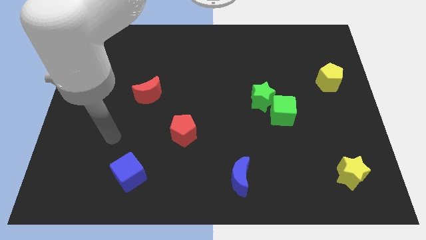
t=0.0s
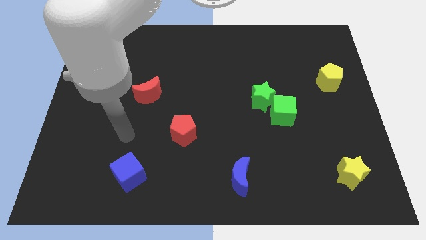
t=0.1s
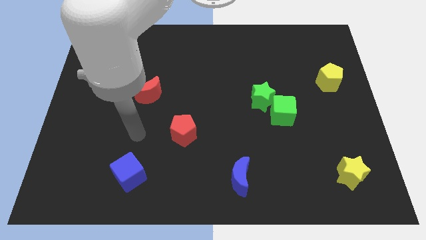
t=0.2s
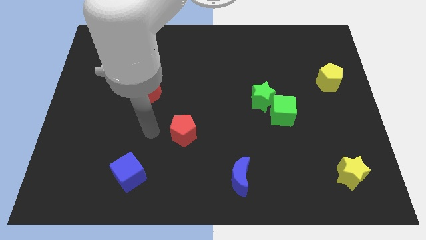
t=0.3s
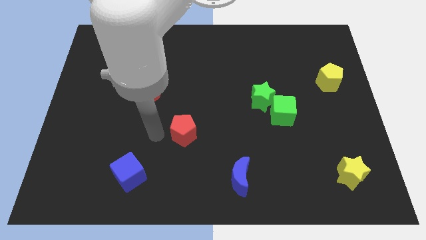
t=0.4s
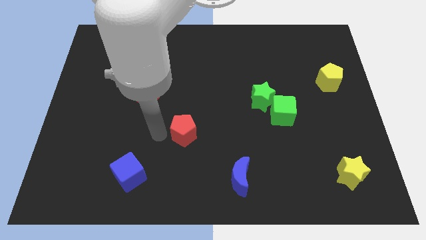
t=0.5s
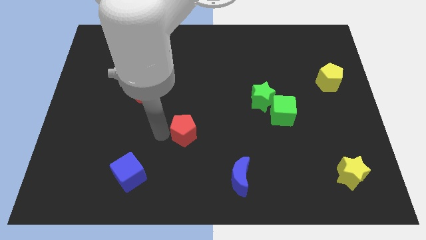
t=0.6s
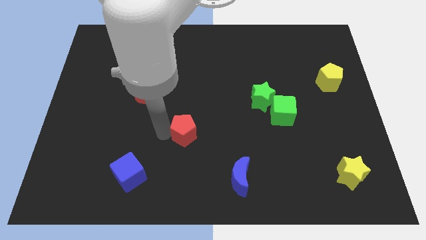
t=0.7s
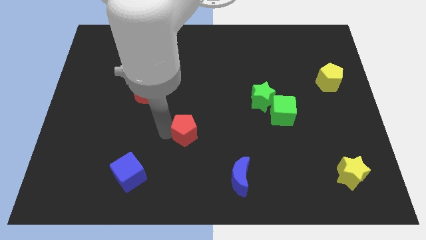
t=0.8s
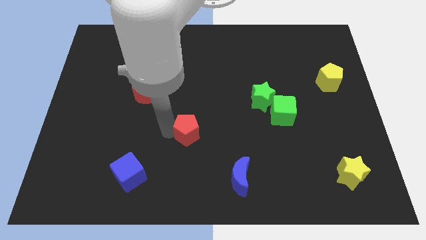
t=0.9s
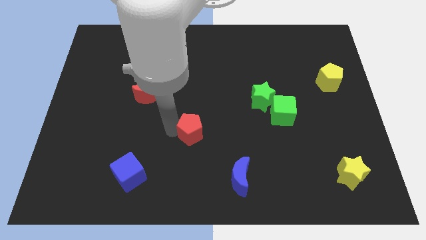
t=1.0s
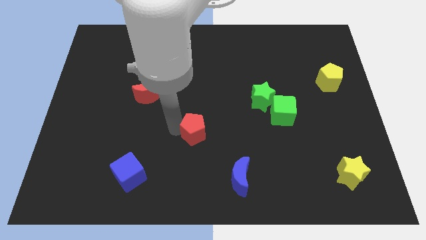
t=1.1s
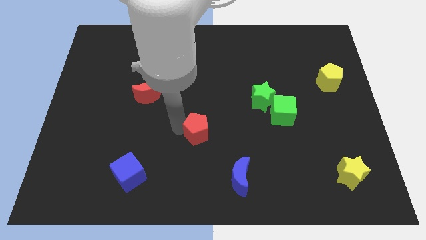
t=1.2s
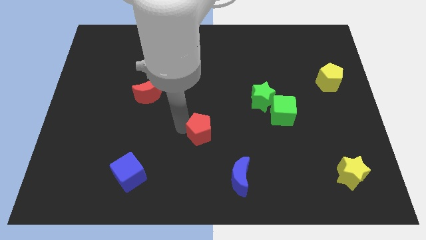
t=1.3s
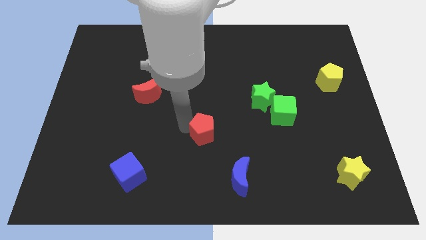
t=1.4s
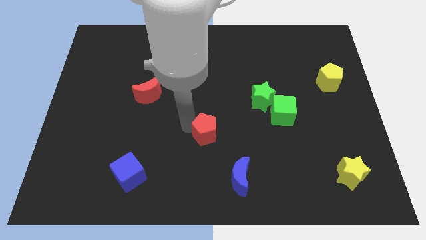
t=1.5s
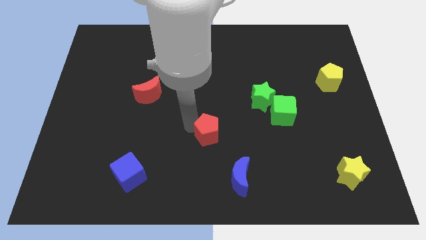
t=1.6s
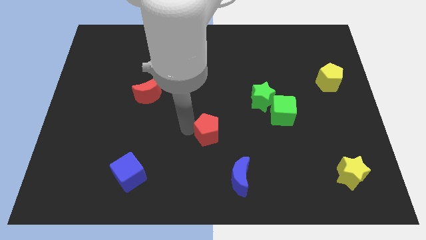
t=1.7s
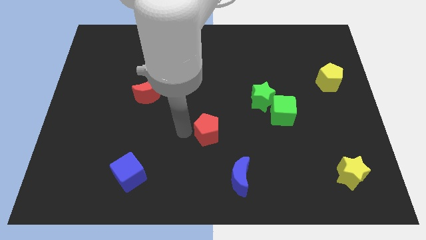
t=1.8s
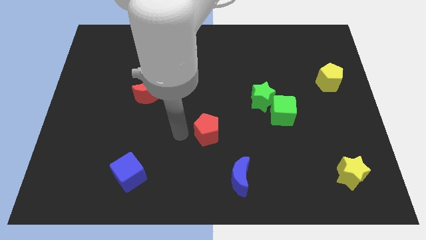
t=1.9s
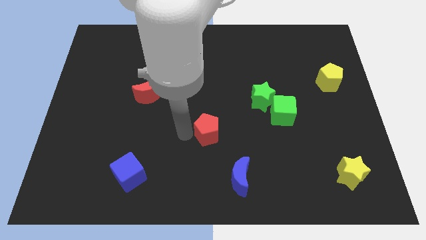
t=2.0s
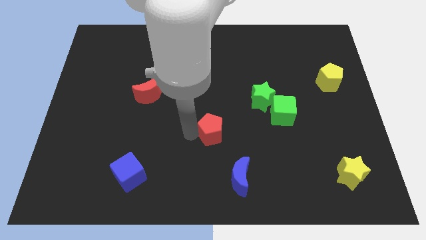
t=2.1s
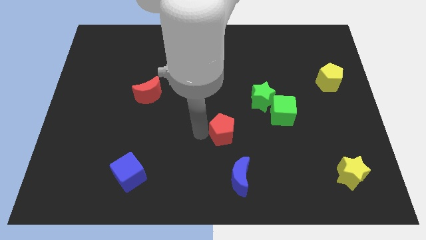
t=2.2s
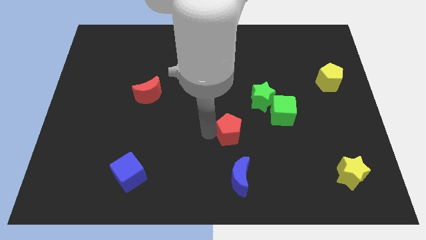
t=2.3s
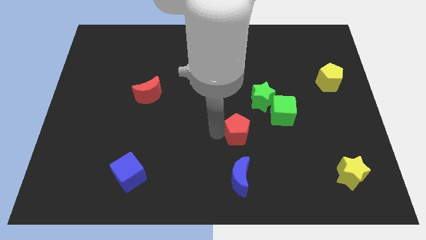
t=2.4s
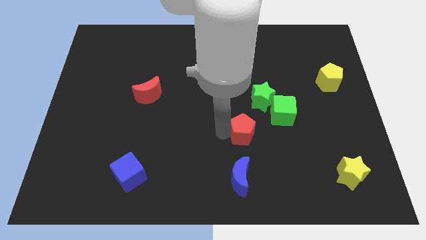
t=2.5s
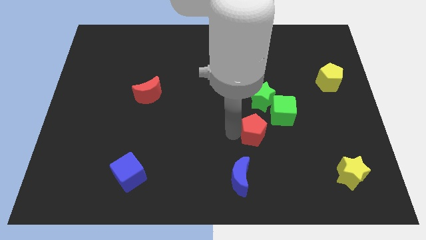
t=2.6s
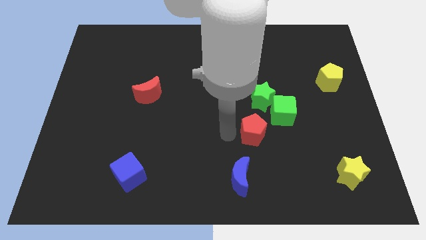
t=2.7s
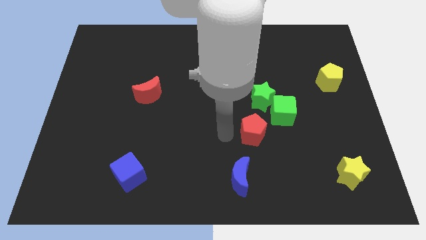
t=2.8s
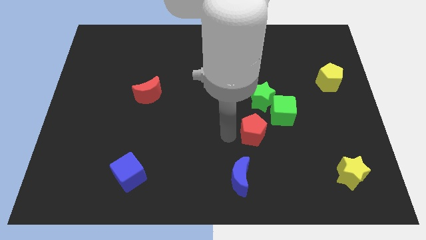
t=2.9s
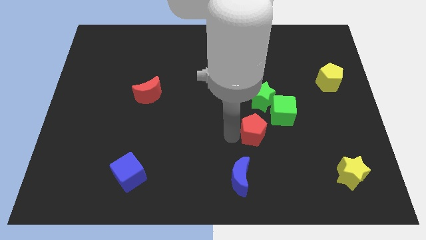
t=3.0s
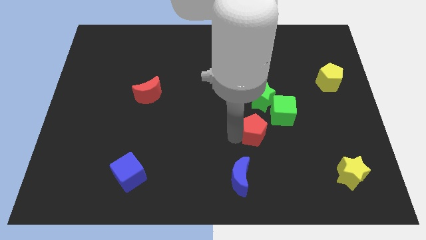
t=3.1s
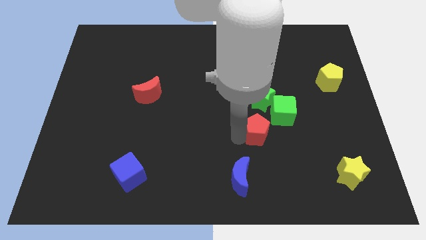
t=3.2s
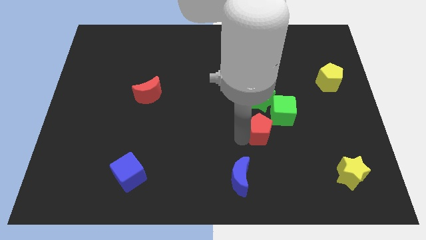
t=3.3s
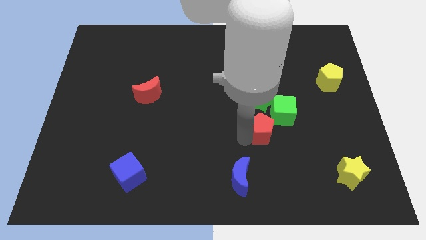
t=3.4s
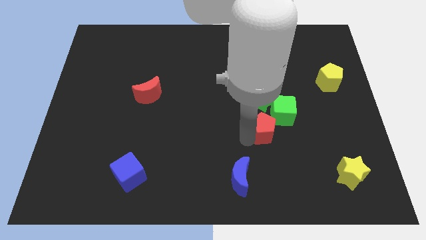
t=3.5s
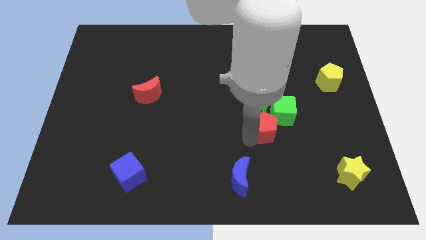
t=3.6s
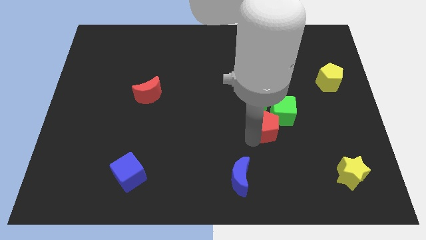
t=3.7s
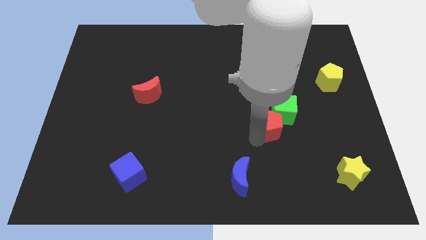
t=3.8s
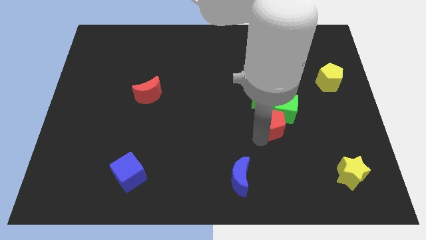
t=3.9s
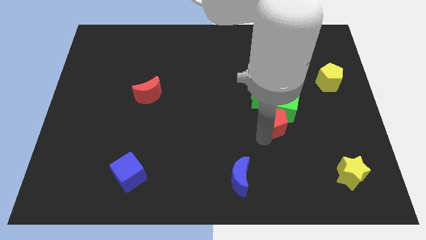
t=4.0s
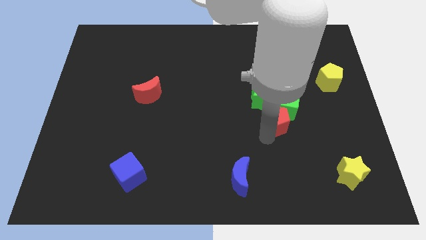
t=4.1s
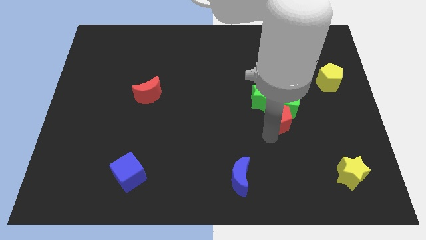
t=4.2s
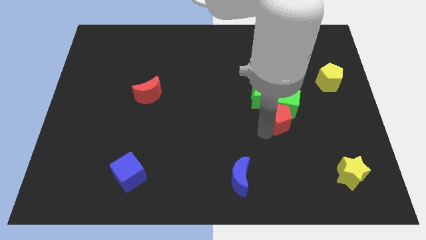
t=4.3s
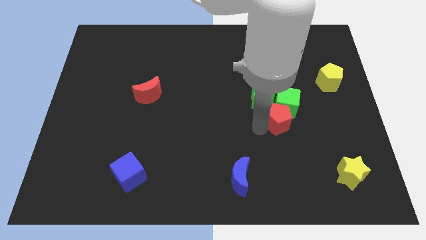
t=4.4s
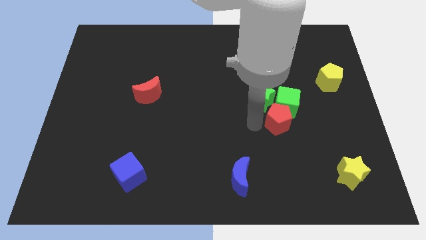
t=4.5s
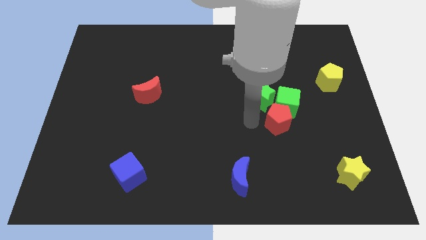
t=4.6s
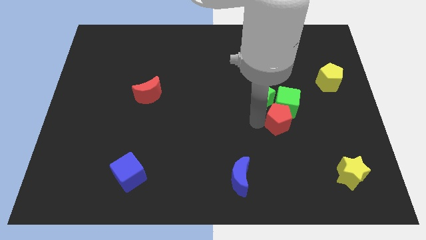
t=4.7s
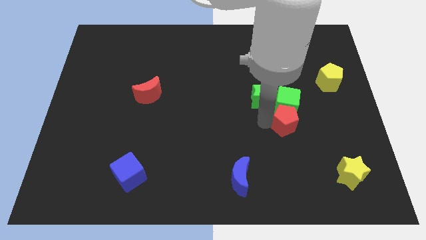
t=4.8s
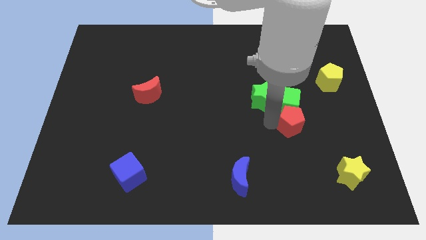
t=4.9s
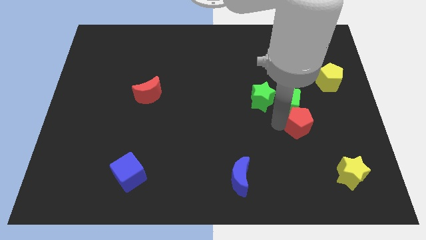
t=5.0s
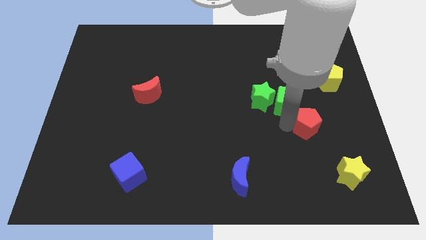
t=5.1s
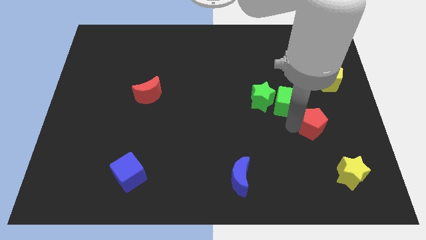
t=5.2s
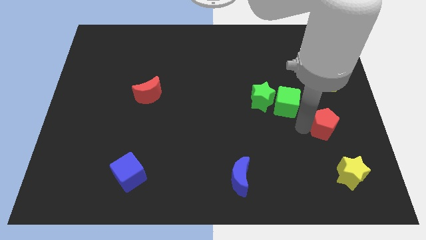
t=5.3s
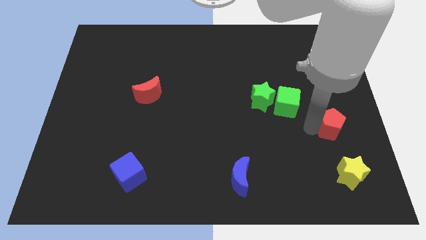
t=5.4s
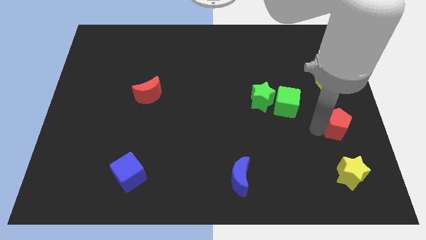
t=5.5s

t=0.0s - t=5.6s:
push the red pentagon to the center right

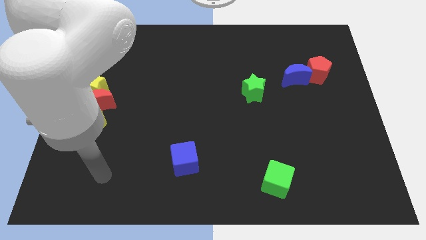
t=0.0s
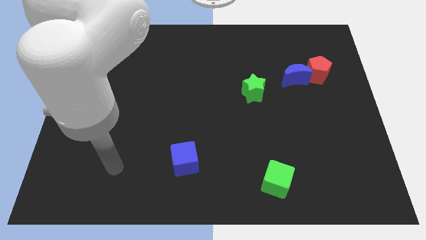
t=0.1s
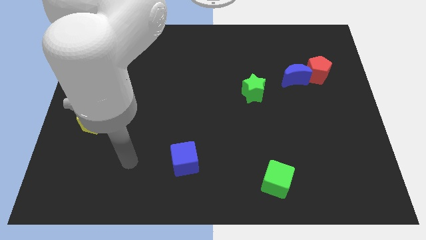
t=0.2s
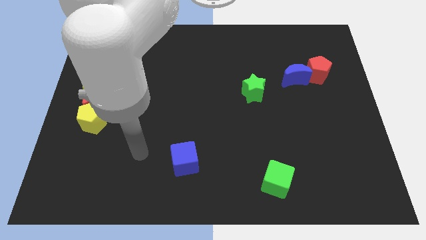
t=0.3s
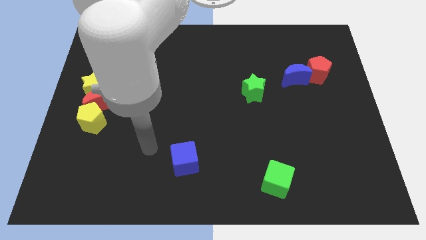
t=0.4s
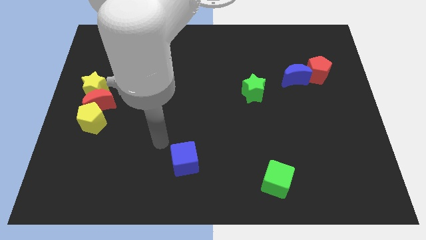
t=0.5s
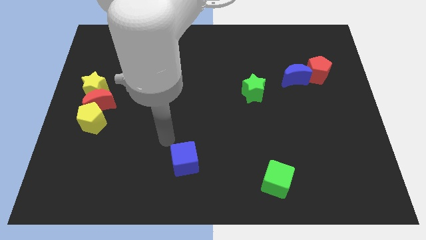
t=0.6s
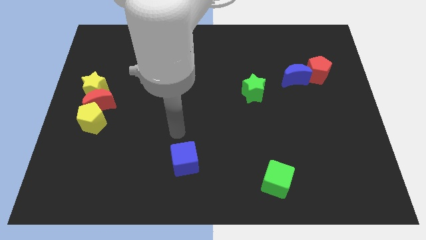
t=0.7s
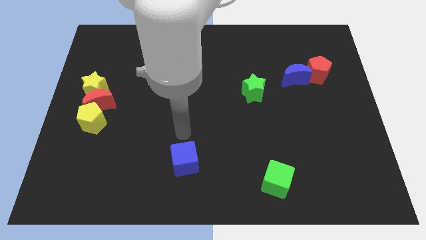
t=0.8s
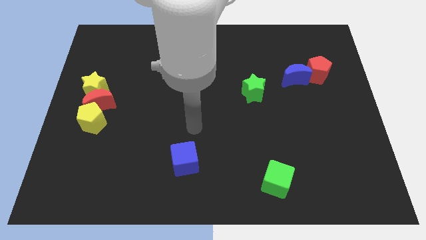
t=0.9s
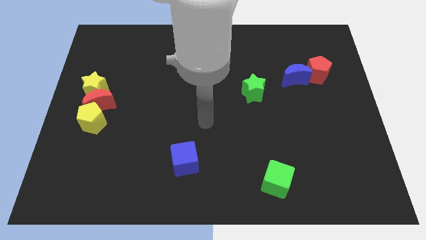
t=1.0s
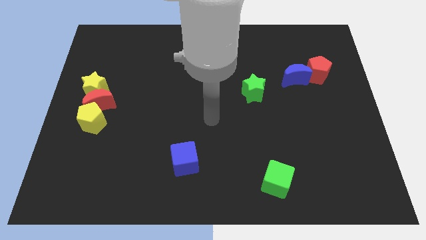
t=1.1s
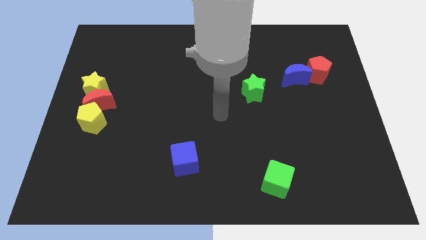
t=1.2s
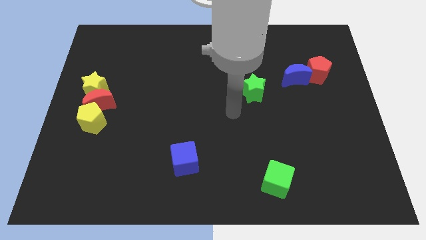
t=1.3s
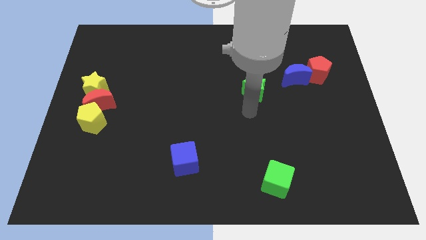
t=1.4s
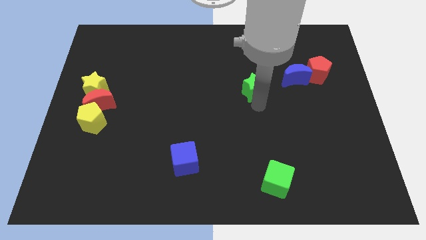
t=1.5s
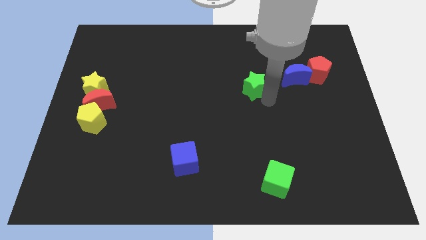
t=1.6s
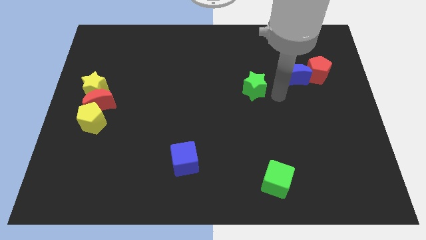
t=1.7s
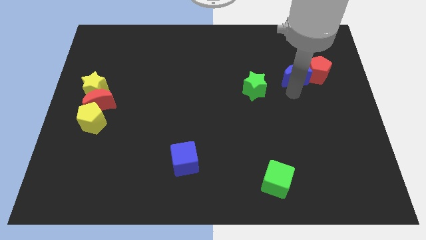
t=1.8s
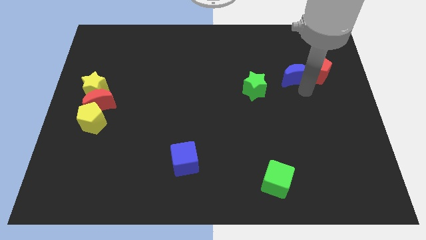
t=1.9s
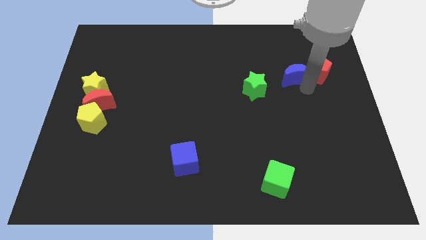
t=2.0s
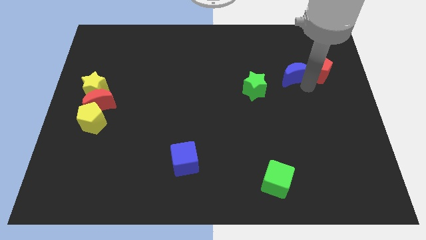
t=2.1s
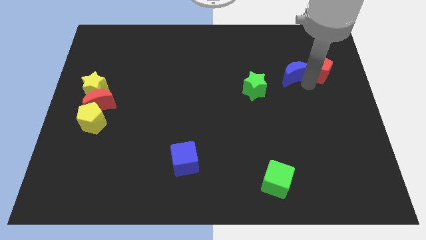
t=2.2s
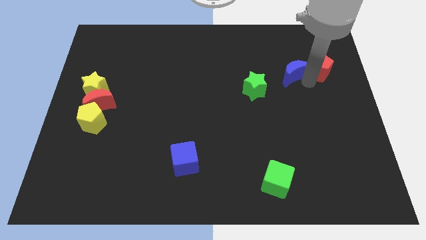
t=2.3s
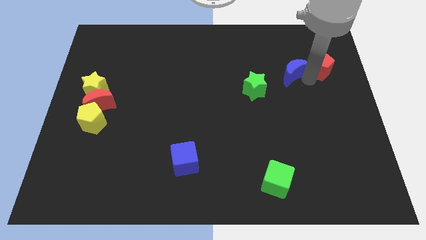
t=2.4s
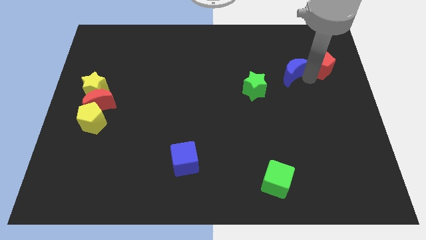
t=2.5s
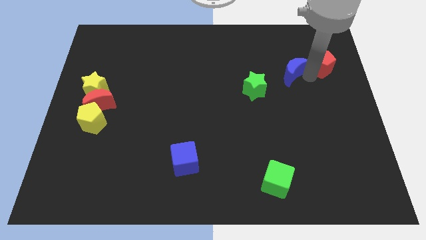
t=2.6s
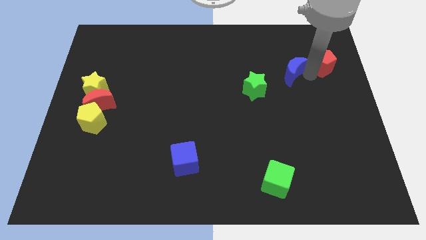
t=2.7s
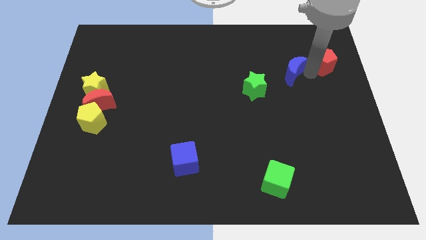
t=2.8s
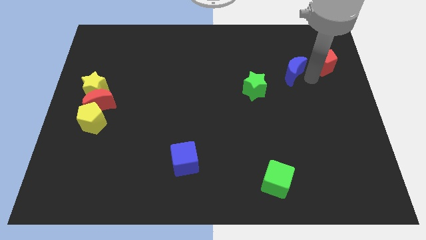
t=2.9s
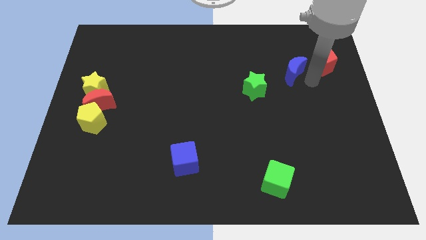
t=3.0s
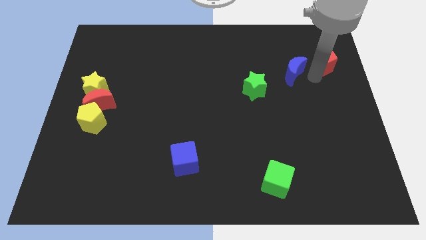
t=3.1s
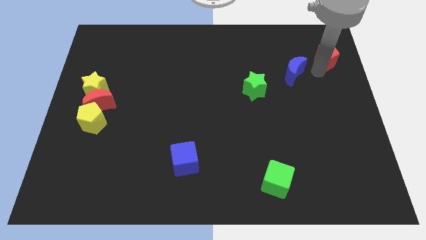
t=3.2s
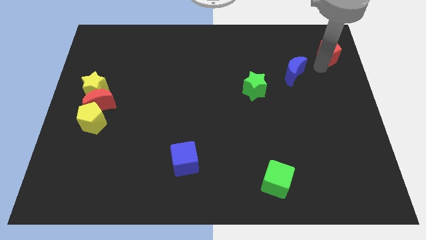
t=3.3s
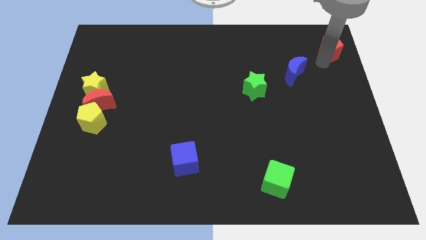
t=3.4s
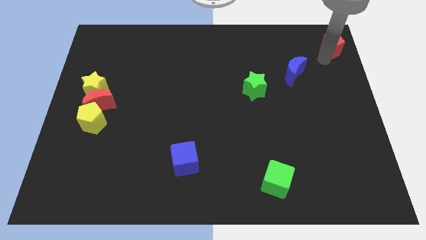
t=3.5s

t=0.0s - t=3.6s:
push the red pentagon to the upper right corner
